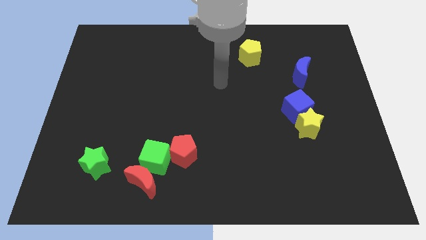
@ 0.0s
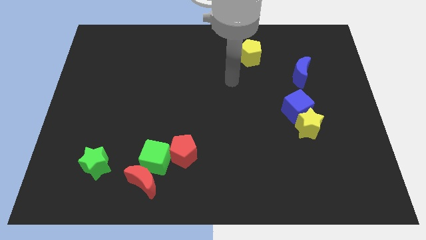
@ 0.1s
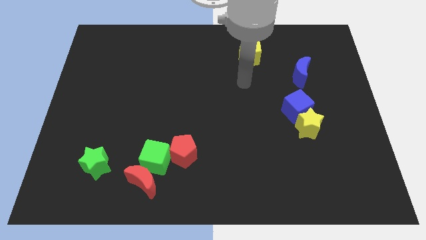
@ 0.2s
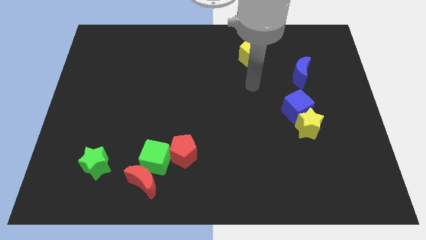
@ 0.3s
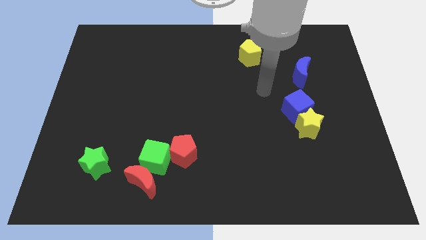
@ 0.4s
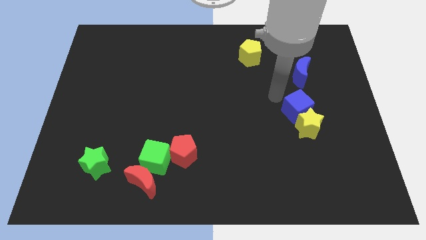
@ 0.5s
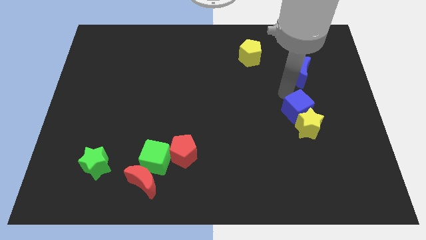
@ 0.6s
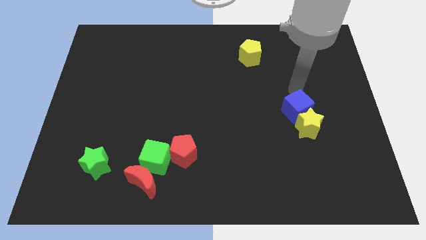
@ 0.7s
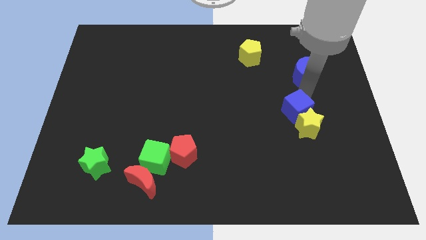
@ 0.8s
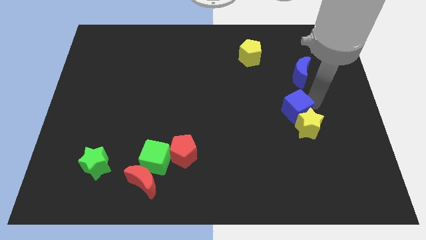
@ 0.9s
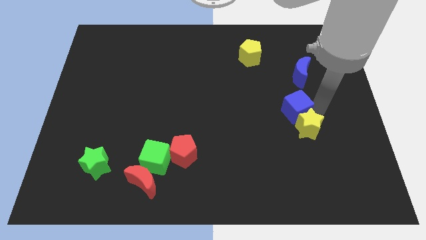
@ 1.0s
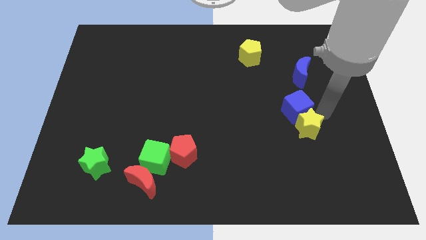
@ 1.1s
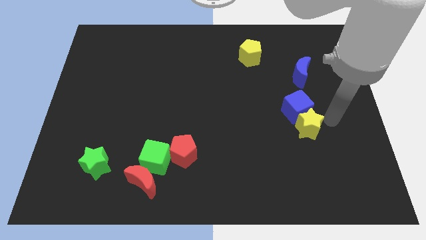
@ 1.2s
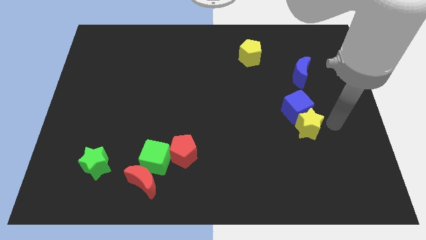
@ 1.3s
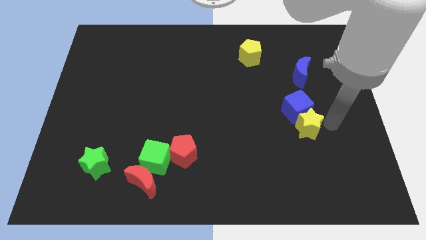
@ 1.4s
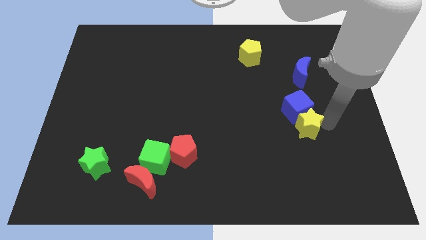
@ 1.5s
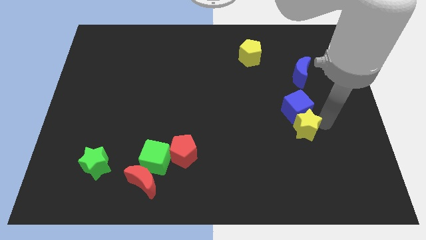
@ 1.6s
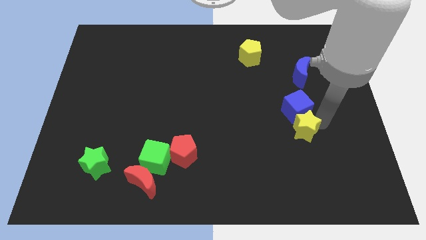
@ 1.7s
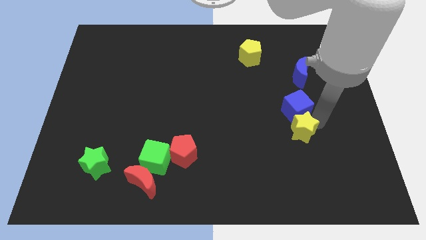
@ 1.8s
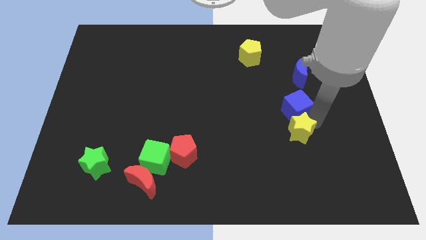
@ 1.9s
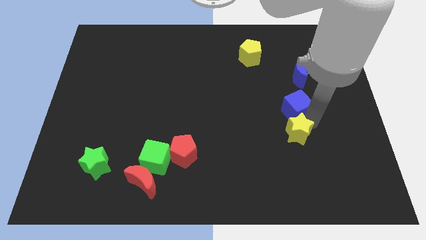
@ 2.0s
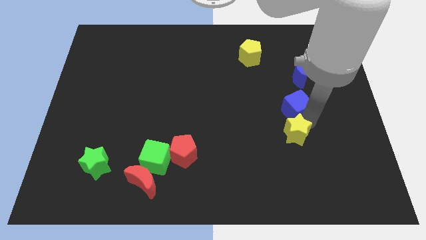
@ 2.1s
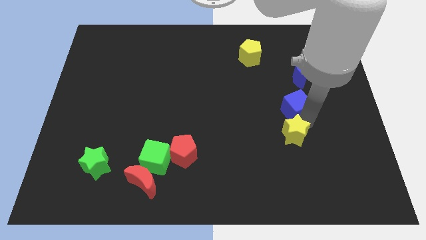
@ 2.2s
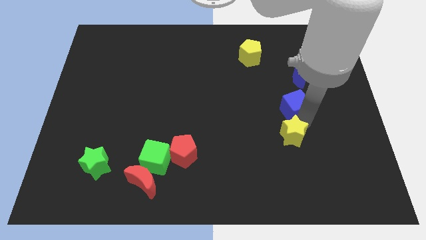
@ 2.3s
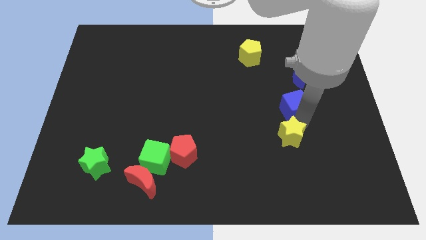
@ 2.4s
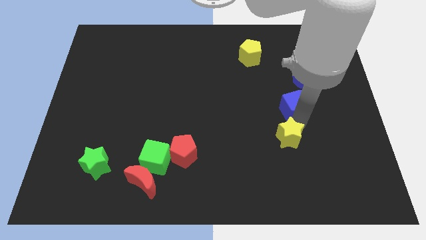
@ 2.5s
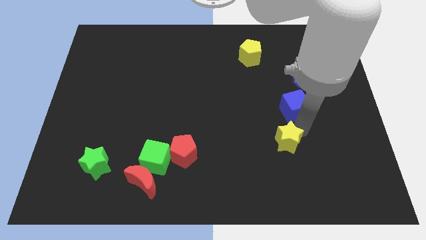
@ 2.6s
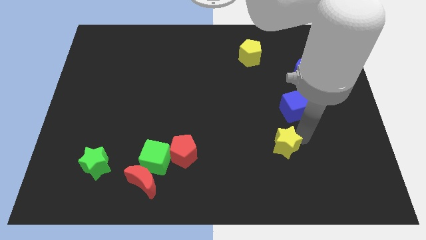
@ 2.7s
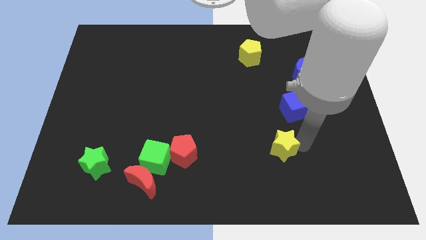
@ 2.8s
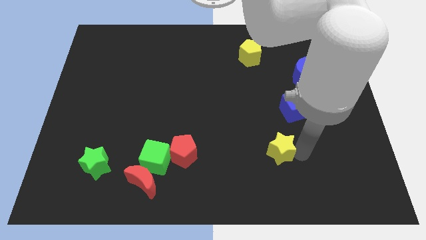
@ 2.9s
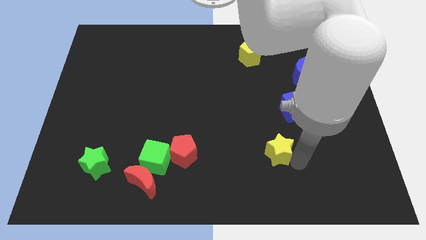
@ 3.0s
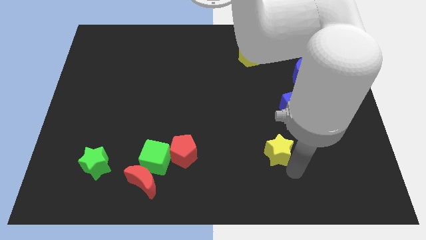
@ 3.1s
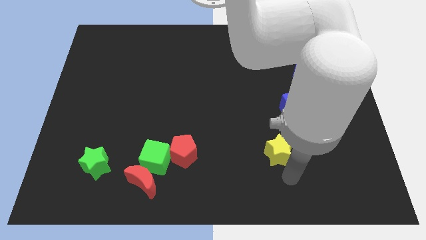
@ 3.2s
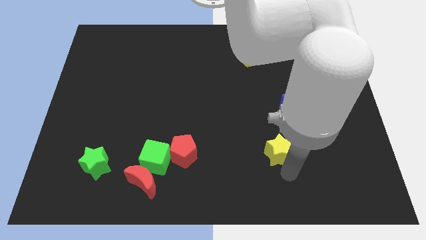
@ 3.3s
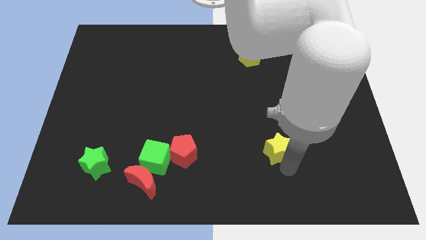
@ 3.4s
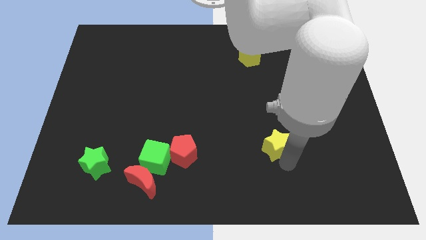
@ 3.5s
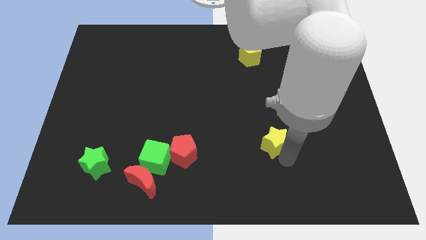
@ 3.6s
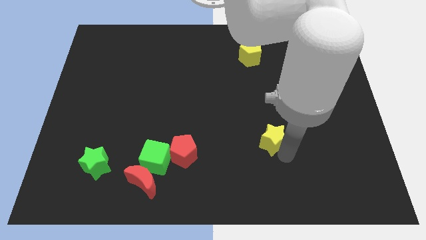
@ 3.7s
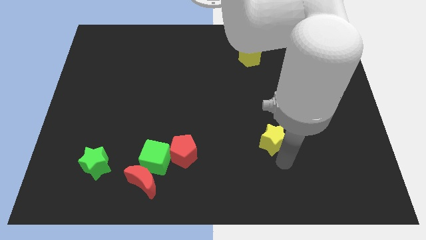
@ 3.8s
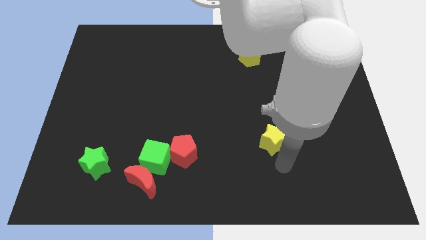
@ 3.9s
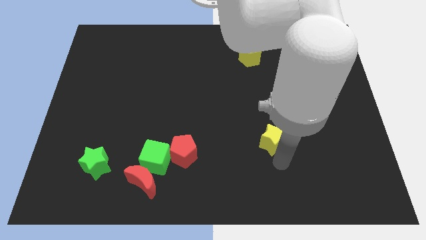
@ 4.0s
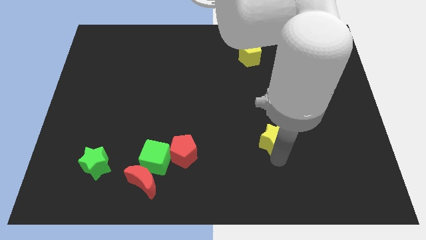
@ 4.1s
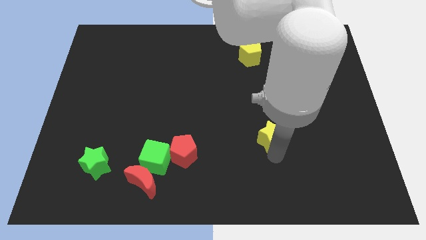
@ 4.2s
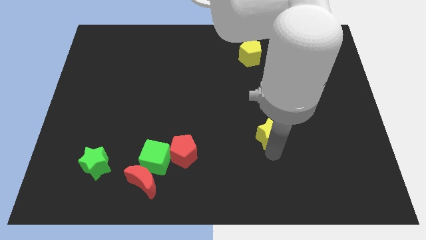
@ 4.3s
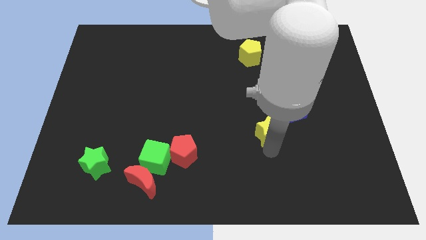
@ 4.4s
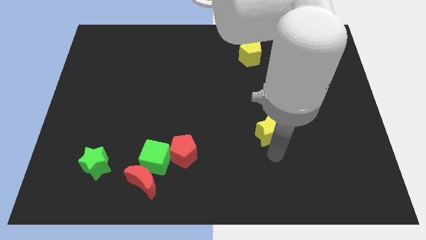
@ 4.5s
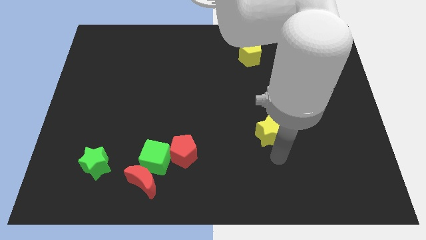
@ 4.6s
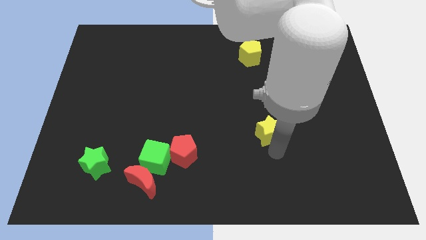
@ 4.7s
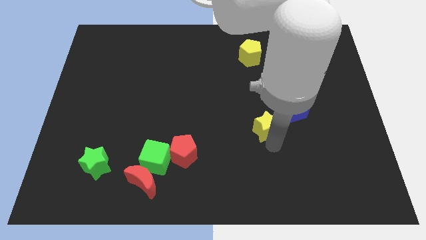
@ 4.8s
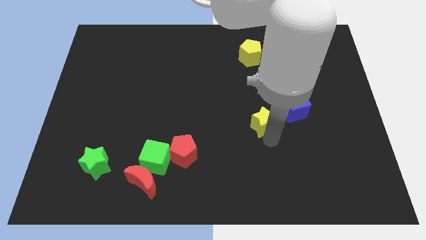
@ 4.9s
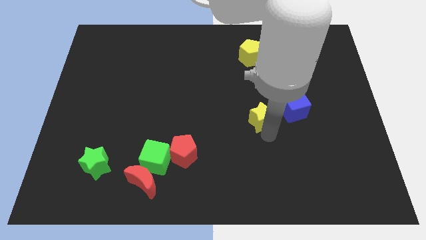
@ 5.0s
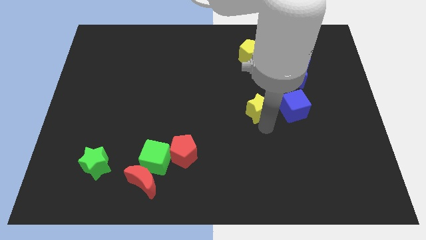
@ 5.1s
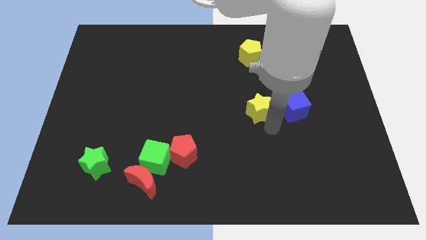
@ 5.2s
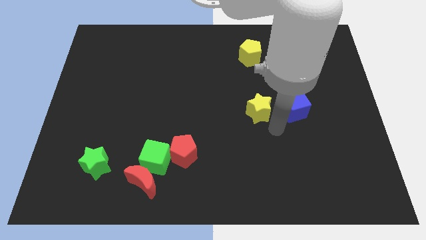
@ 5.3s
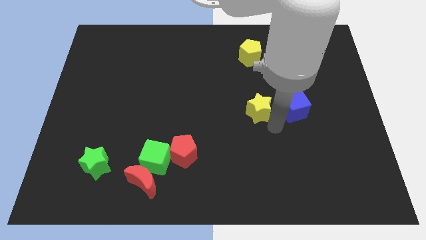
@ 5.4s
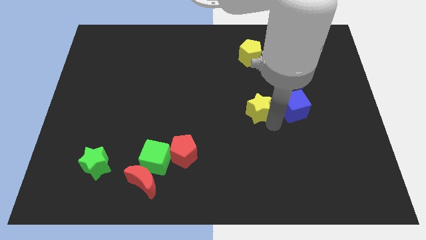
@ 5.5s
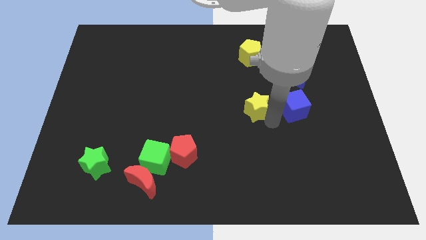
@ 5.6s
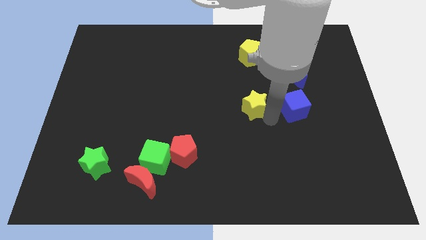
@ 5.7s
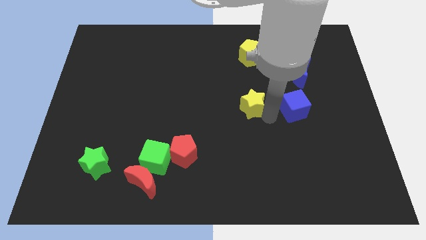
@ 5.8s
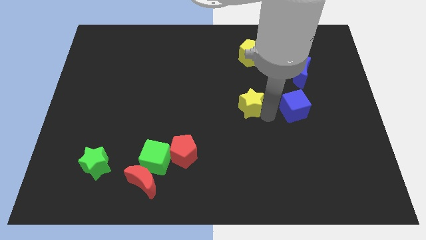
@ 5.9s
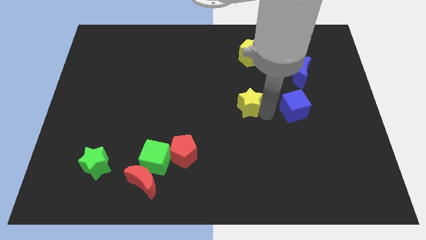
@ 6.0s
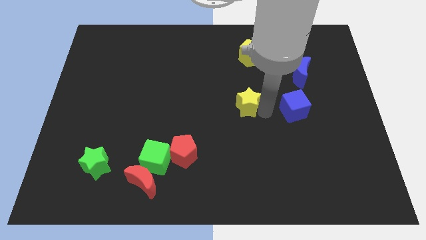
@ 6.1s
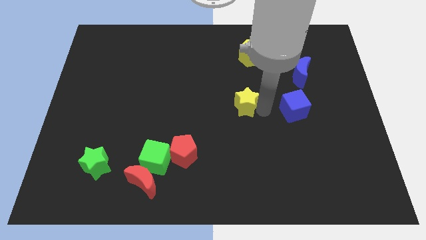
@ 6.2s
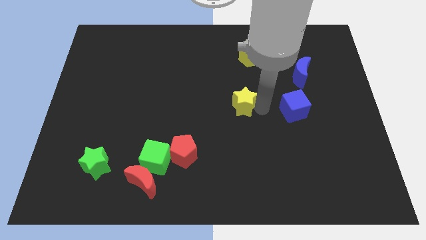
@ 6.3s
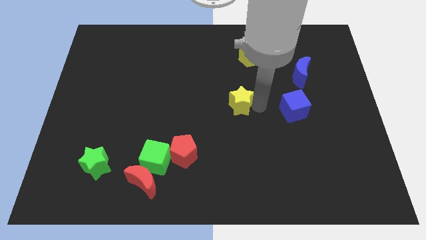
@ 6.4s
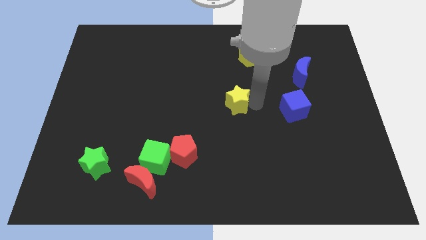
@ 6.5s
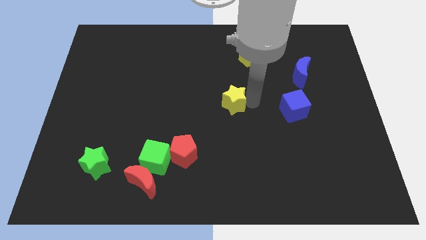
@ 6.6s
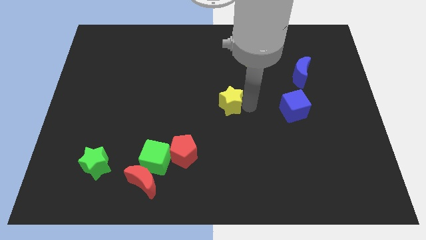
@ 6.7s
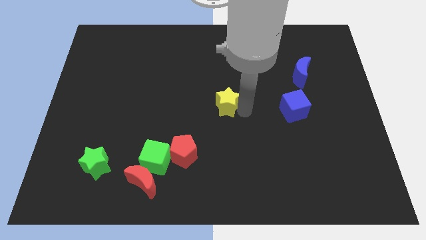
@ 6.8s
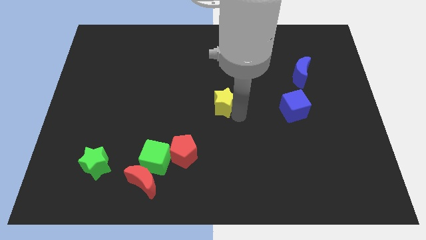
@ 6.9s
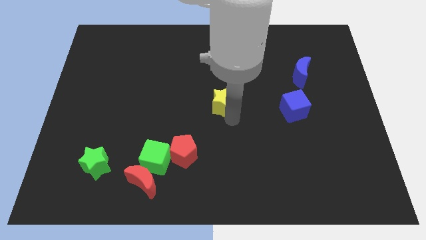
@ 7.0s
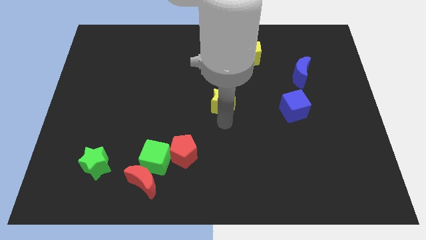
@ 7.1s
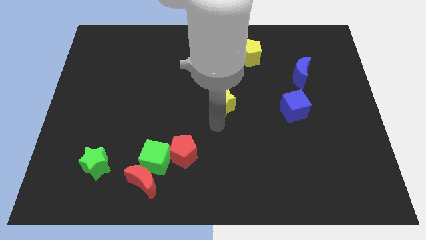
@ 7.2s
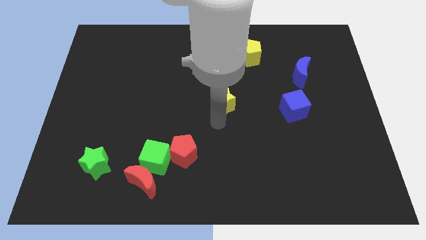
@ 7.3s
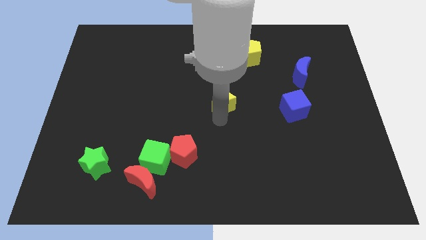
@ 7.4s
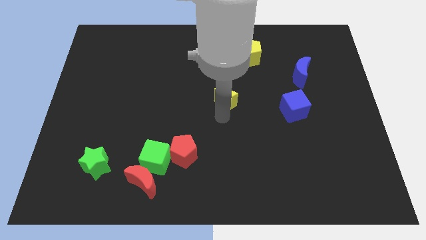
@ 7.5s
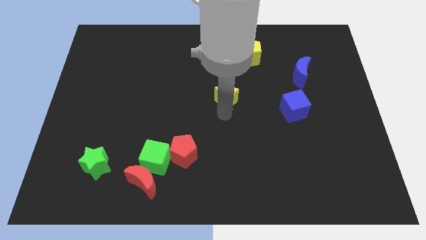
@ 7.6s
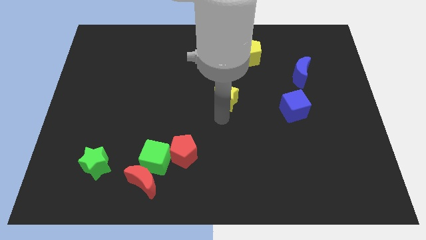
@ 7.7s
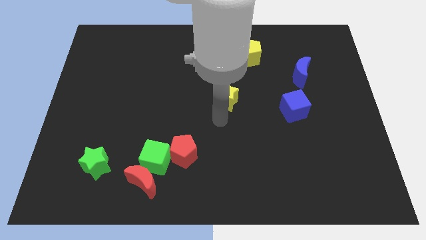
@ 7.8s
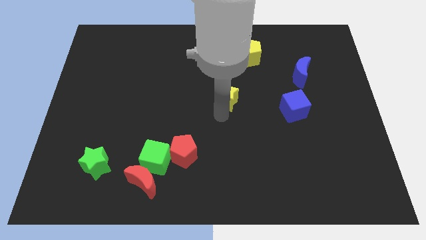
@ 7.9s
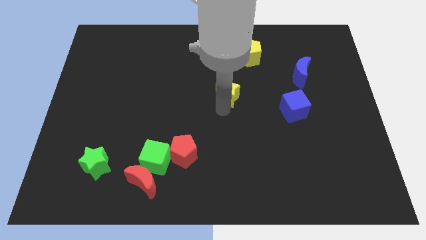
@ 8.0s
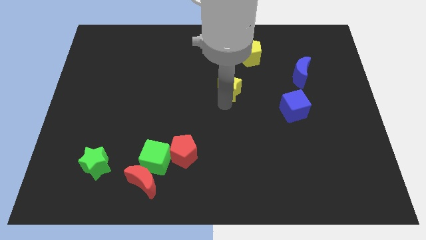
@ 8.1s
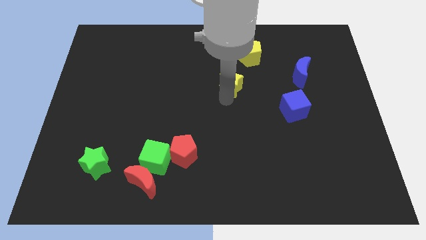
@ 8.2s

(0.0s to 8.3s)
move the yellow star up and to the left

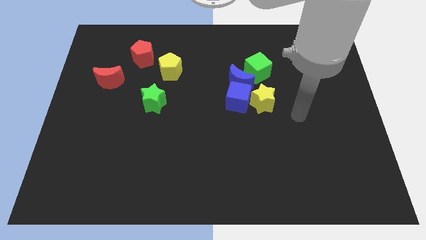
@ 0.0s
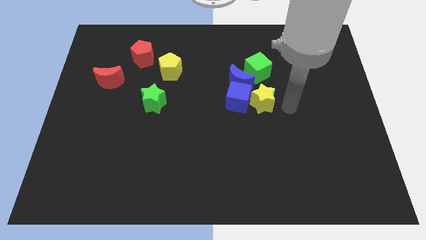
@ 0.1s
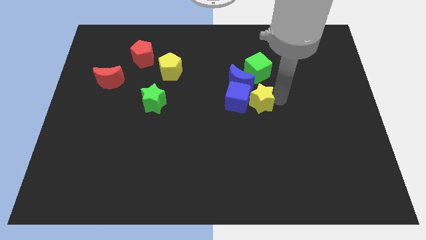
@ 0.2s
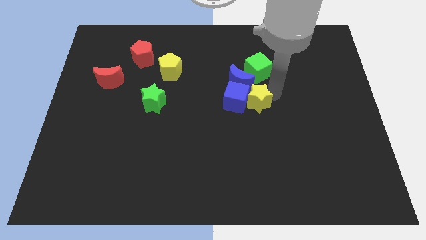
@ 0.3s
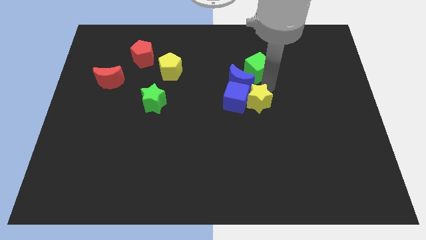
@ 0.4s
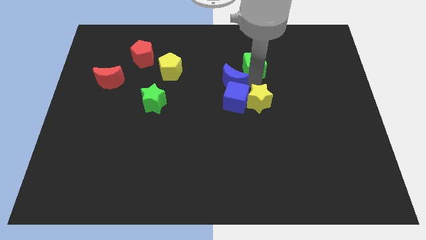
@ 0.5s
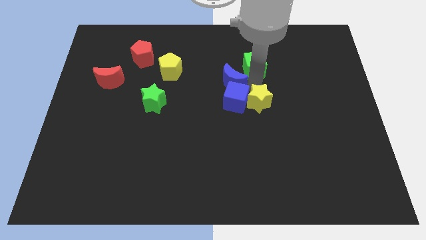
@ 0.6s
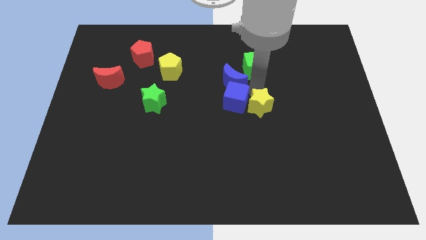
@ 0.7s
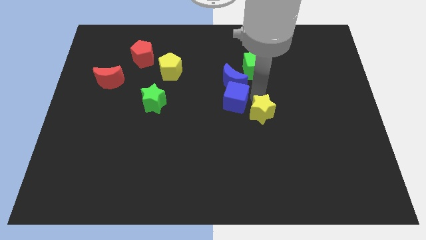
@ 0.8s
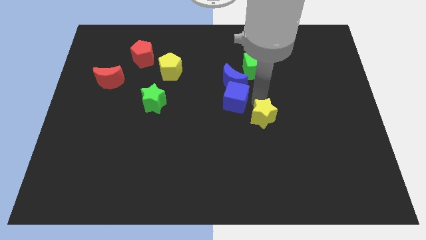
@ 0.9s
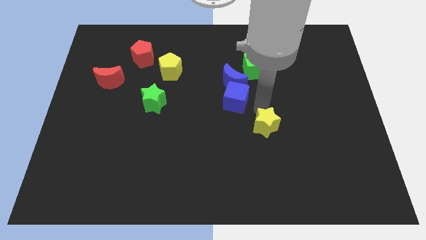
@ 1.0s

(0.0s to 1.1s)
push the yellow star downwards a little bit
